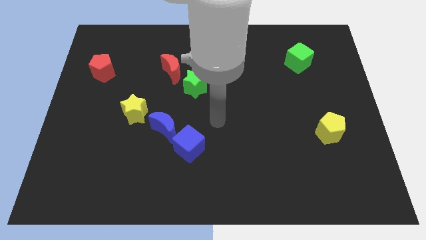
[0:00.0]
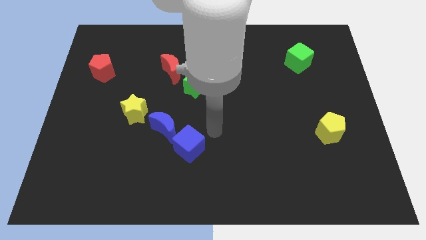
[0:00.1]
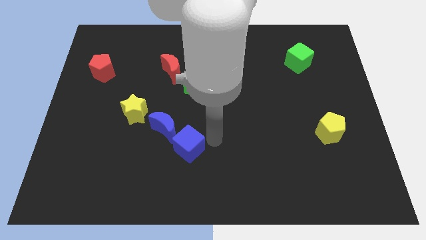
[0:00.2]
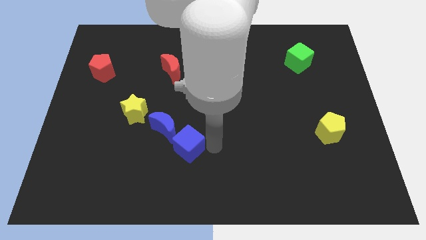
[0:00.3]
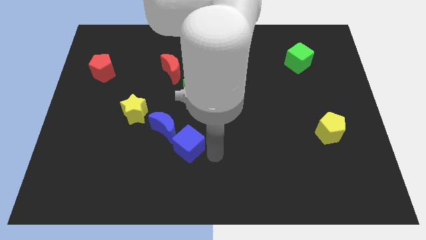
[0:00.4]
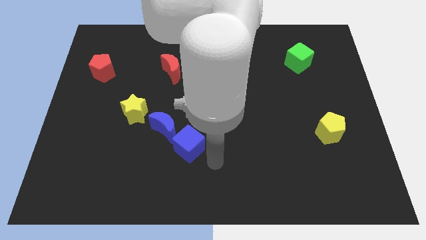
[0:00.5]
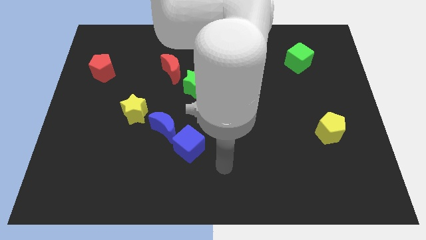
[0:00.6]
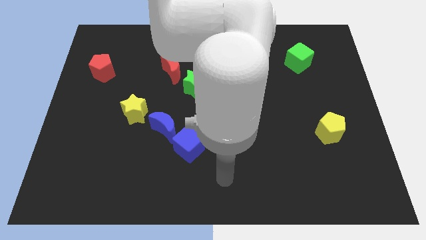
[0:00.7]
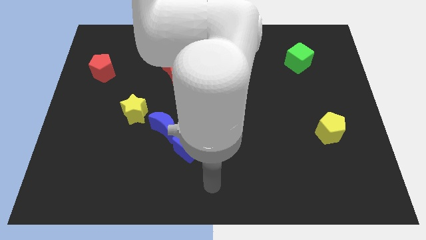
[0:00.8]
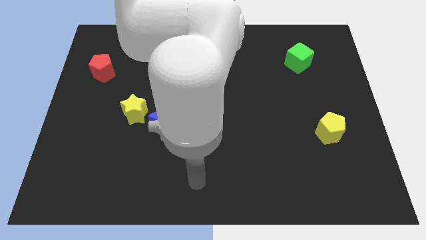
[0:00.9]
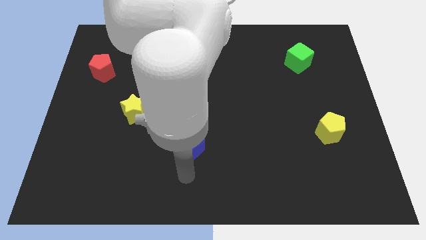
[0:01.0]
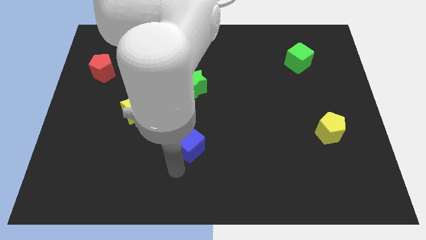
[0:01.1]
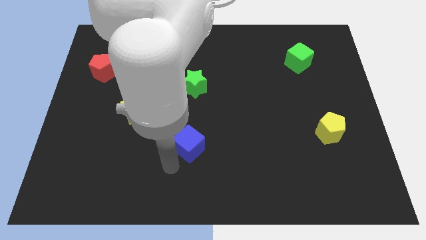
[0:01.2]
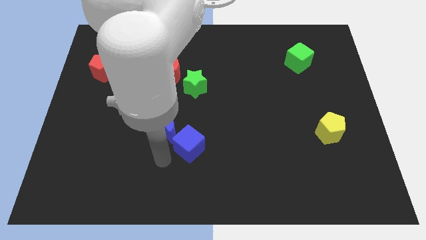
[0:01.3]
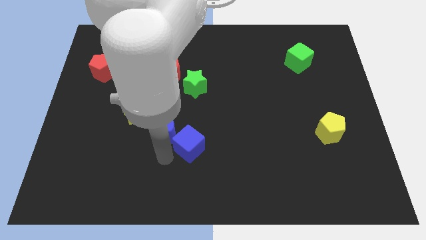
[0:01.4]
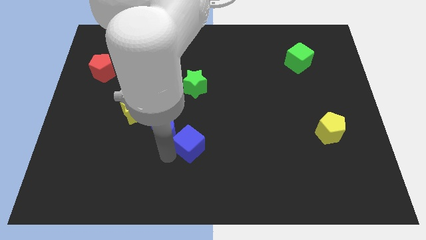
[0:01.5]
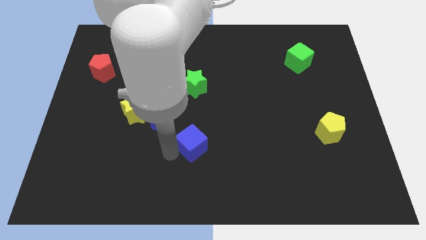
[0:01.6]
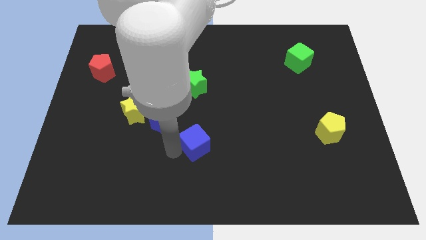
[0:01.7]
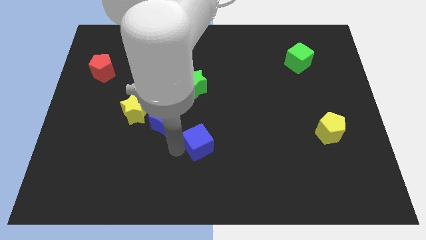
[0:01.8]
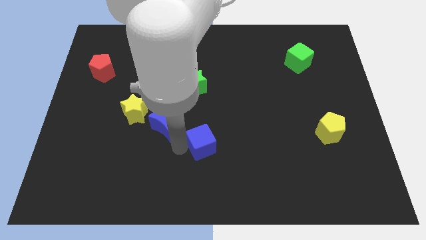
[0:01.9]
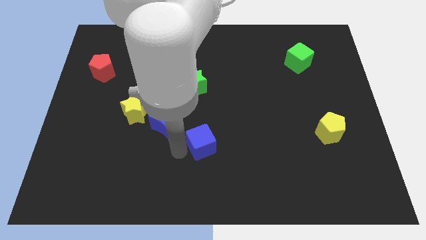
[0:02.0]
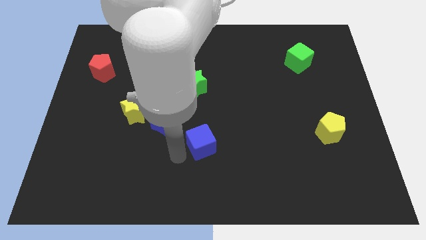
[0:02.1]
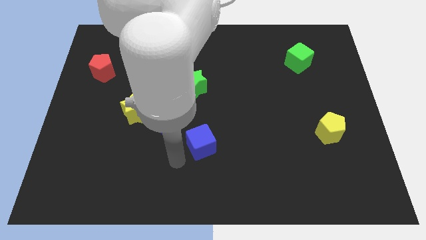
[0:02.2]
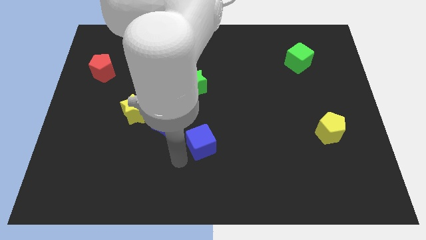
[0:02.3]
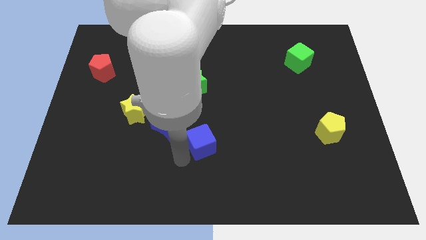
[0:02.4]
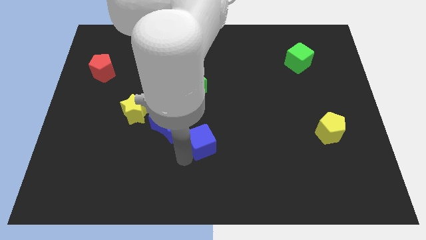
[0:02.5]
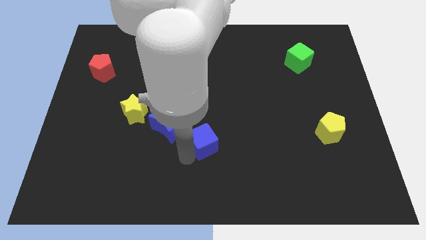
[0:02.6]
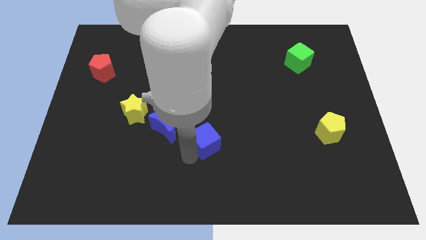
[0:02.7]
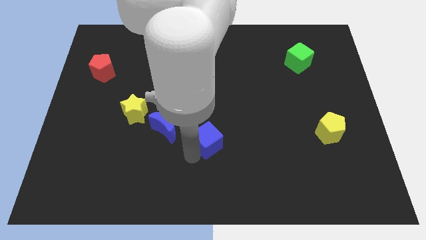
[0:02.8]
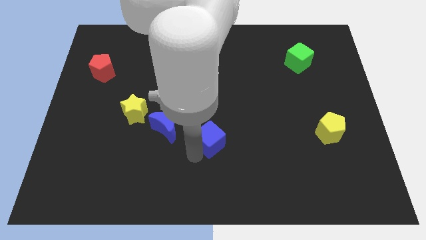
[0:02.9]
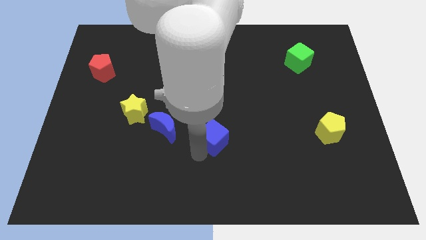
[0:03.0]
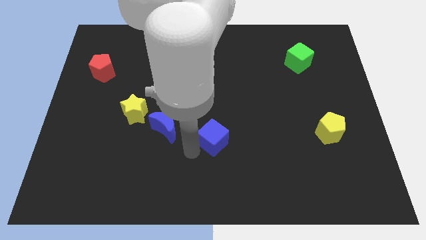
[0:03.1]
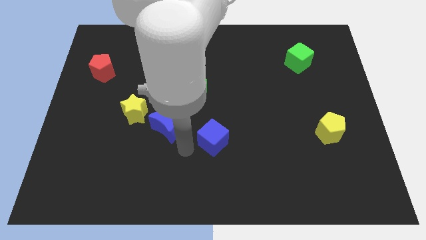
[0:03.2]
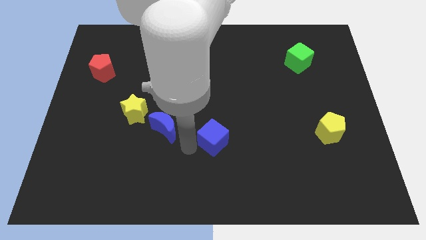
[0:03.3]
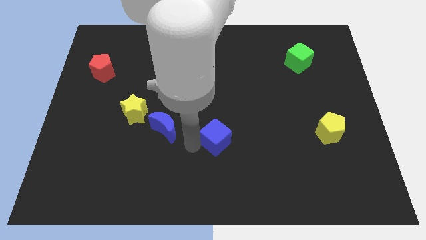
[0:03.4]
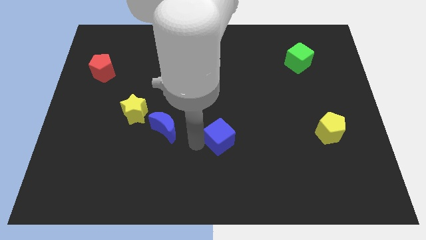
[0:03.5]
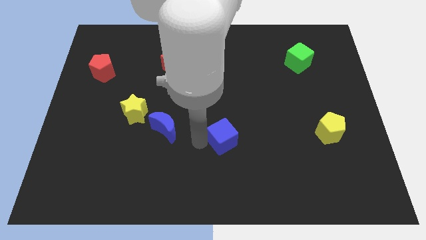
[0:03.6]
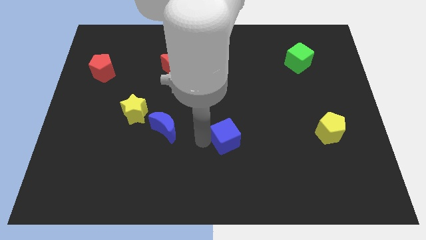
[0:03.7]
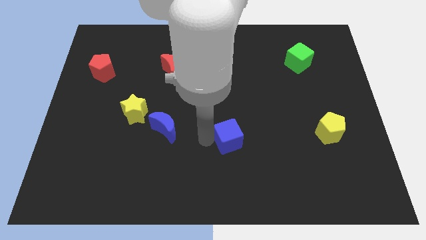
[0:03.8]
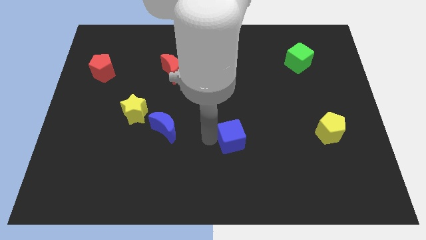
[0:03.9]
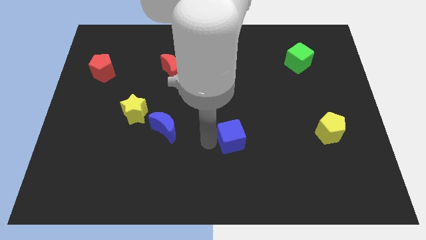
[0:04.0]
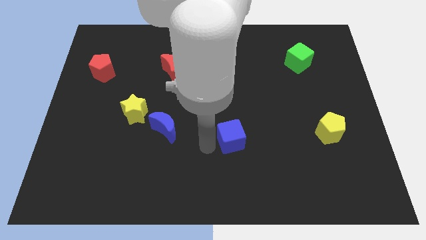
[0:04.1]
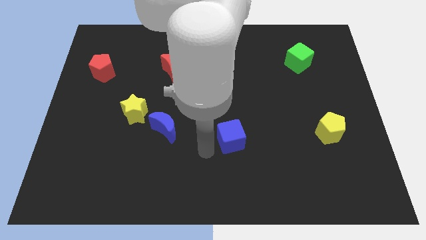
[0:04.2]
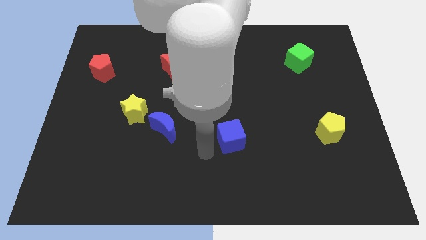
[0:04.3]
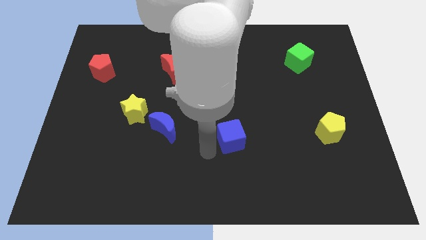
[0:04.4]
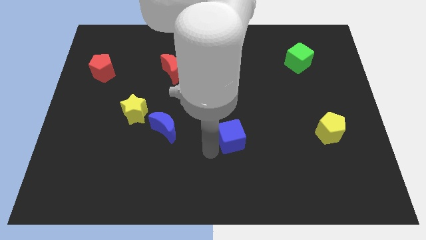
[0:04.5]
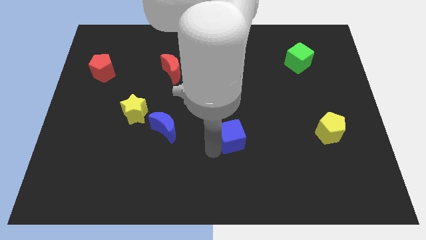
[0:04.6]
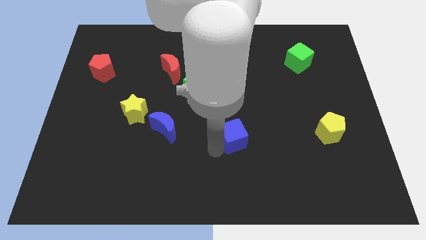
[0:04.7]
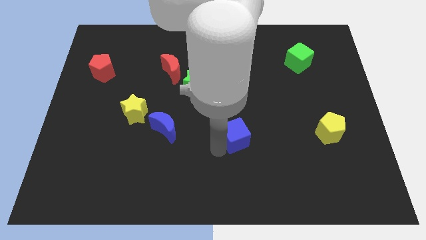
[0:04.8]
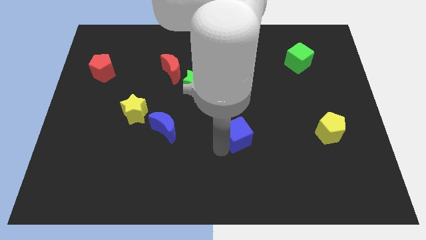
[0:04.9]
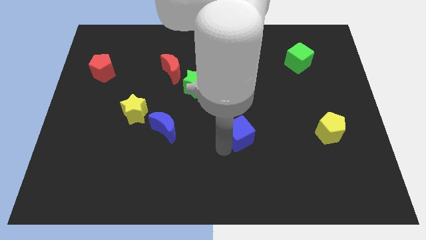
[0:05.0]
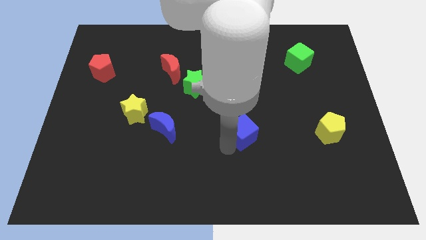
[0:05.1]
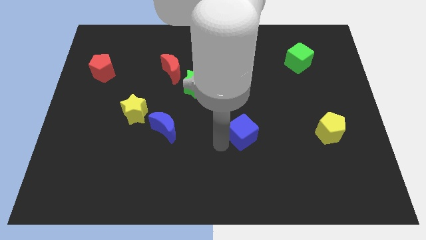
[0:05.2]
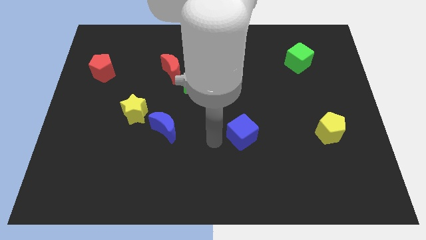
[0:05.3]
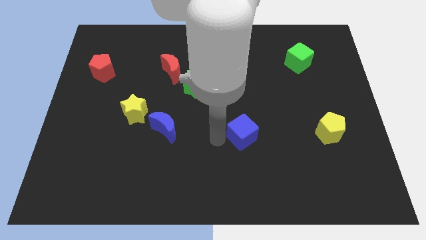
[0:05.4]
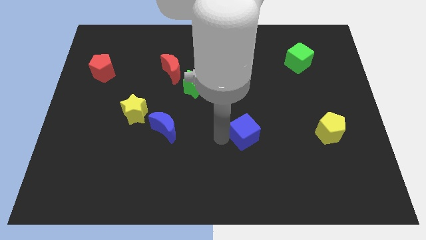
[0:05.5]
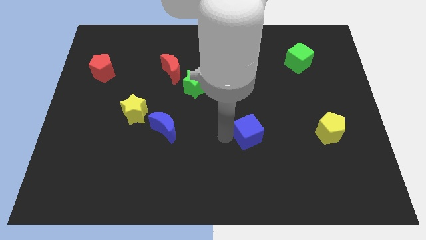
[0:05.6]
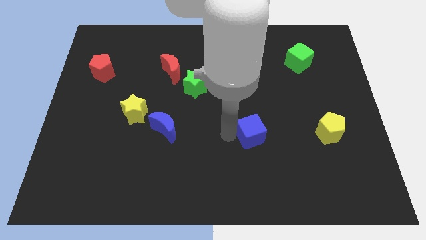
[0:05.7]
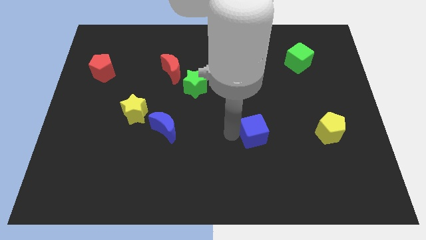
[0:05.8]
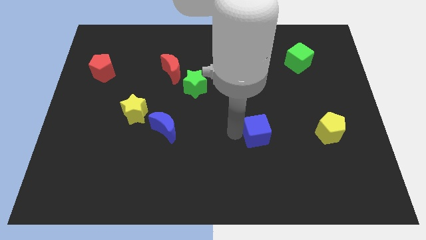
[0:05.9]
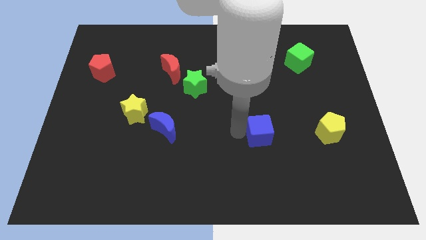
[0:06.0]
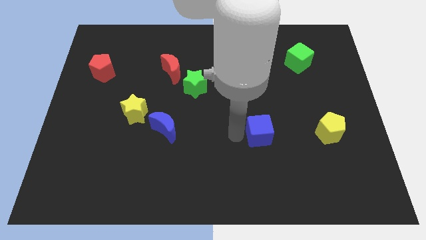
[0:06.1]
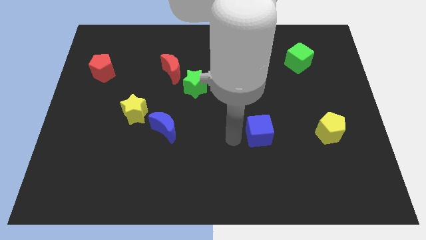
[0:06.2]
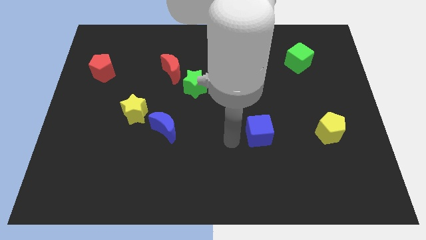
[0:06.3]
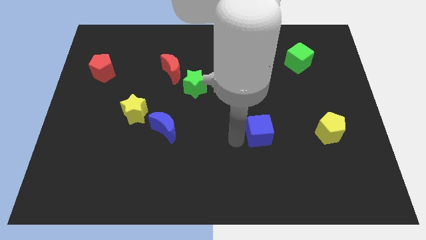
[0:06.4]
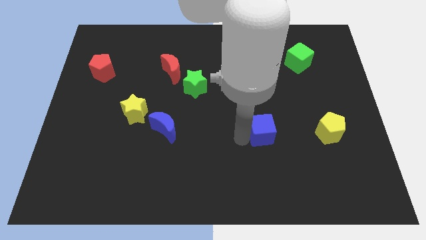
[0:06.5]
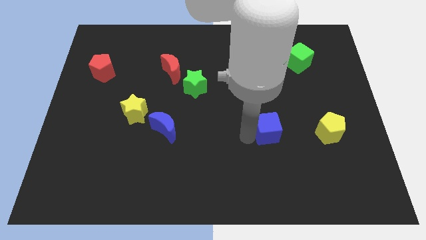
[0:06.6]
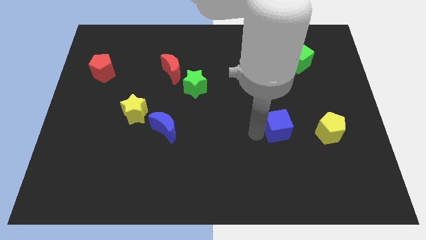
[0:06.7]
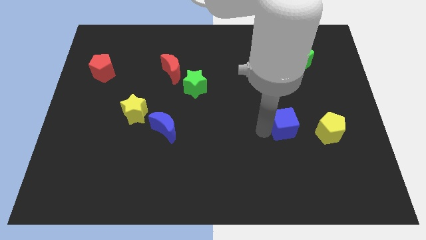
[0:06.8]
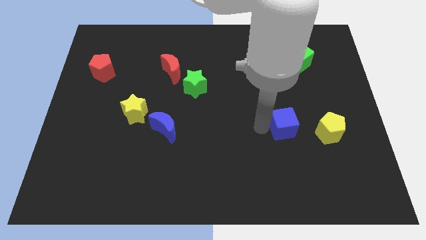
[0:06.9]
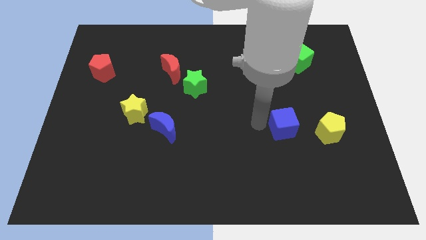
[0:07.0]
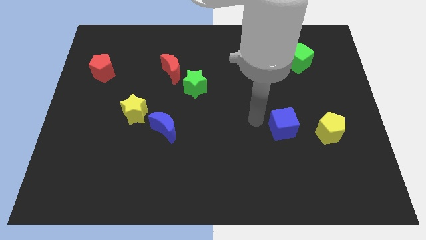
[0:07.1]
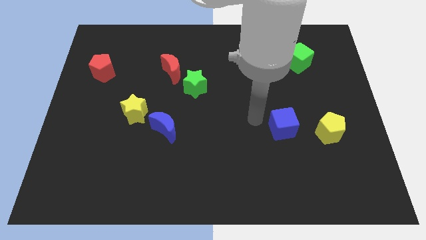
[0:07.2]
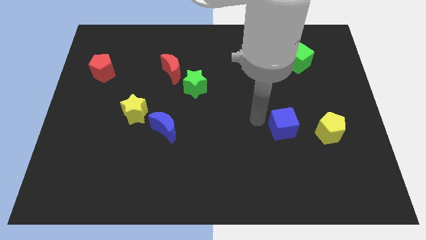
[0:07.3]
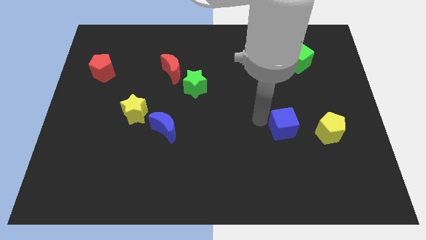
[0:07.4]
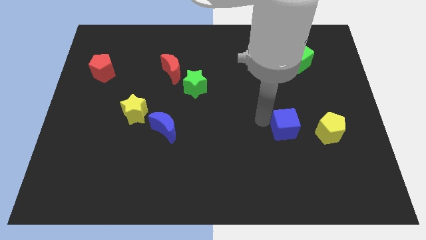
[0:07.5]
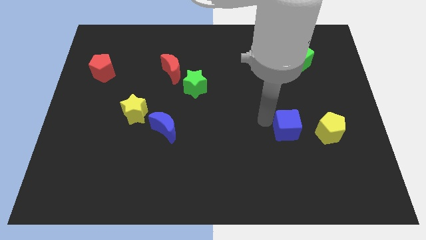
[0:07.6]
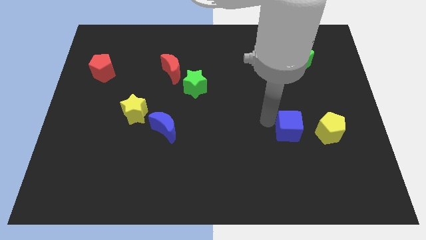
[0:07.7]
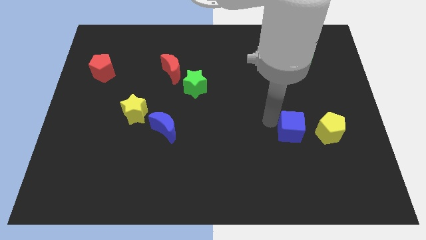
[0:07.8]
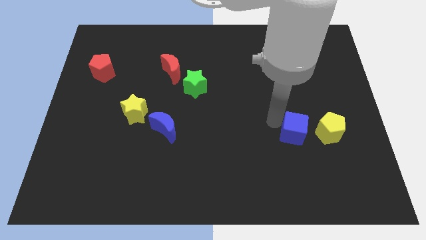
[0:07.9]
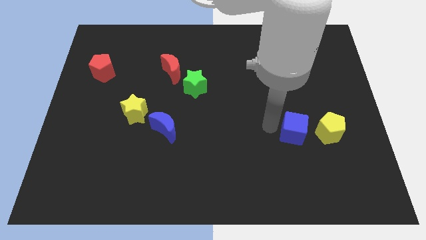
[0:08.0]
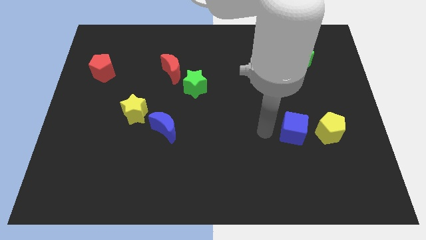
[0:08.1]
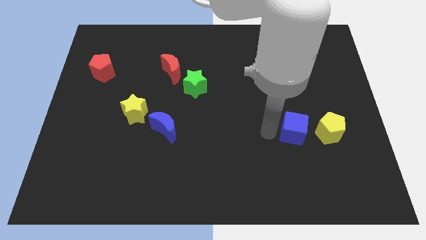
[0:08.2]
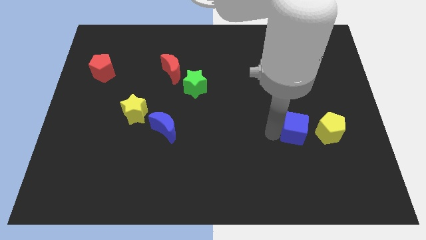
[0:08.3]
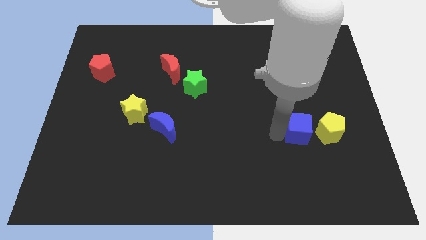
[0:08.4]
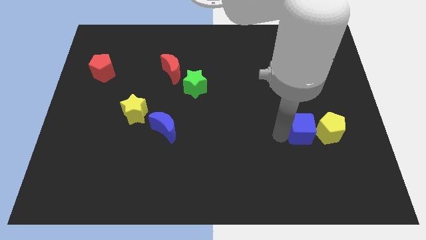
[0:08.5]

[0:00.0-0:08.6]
move the blue cube to the yellow pentagon
